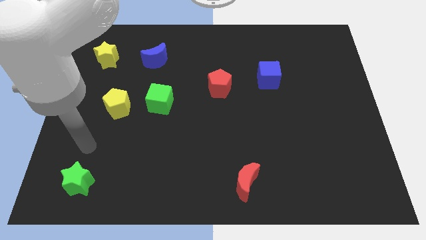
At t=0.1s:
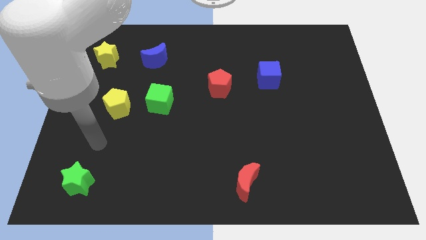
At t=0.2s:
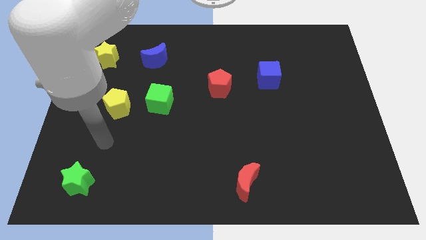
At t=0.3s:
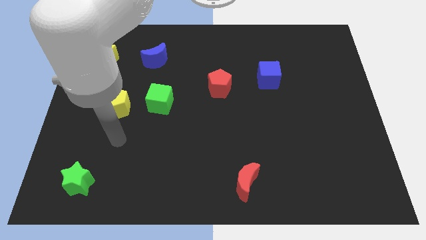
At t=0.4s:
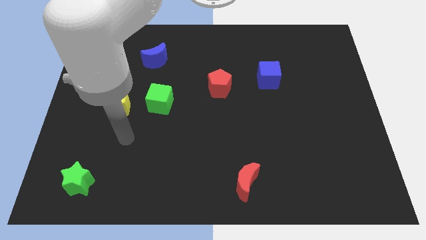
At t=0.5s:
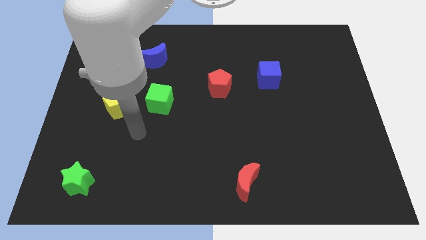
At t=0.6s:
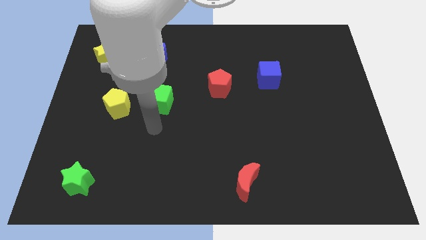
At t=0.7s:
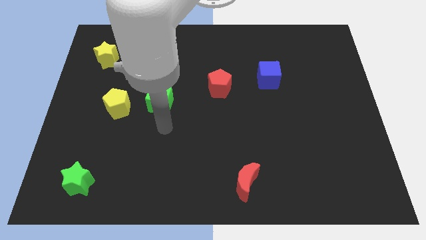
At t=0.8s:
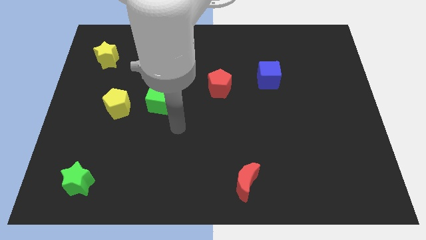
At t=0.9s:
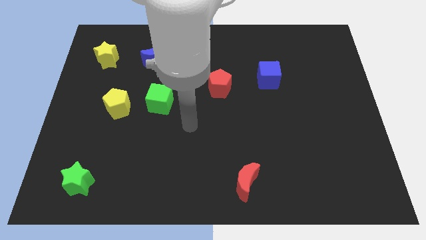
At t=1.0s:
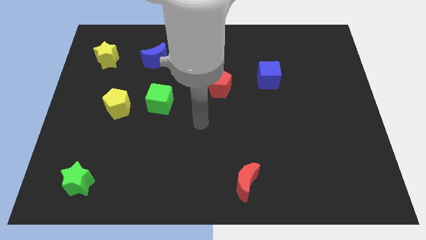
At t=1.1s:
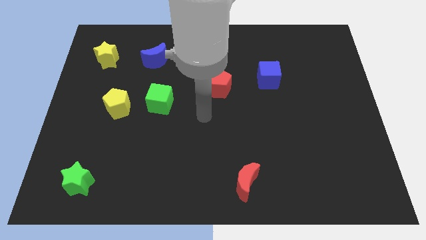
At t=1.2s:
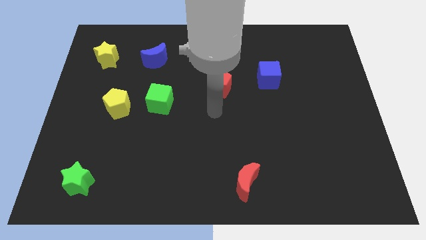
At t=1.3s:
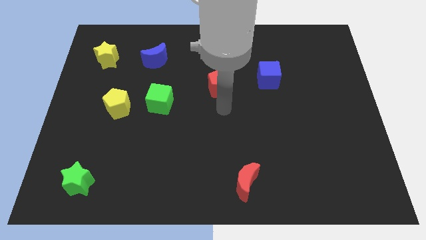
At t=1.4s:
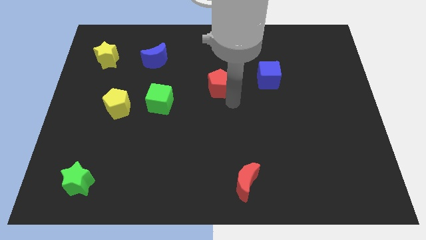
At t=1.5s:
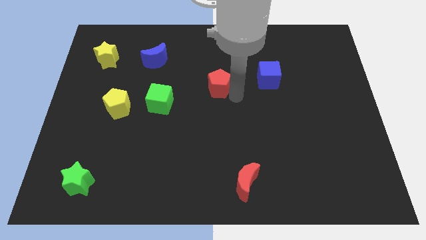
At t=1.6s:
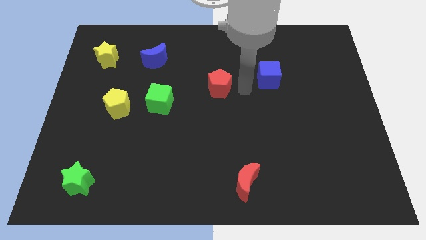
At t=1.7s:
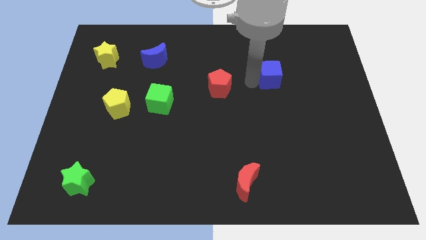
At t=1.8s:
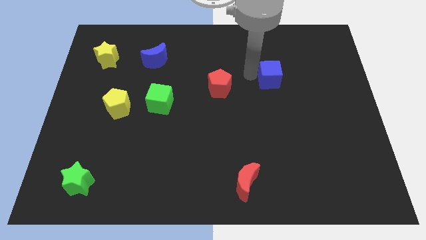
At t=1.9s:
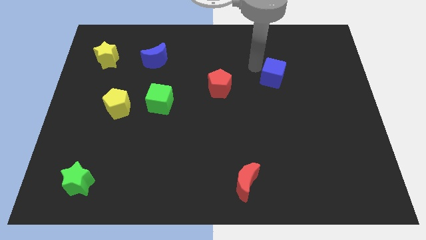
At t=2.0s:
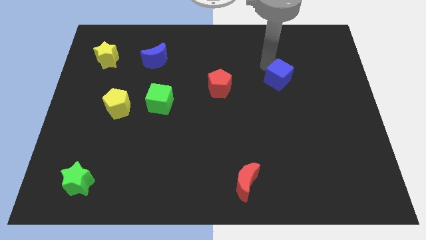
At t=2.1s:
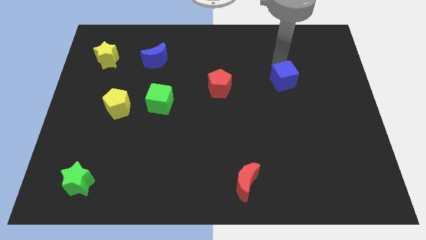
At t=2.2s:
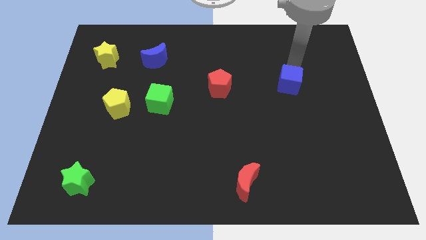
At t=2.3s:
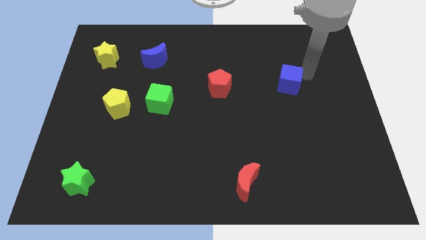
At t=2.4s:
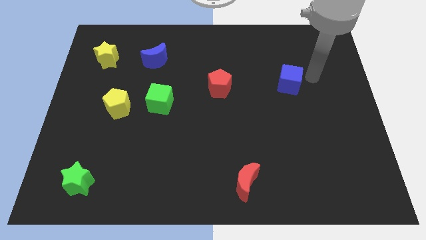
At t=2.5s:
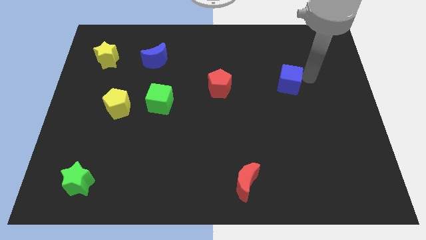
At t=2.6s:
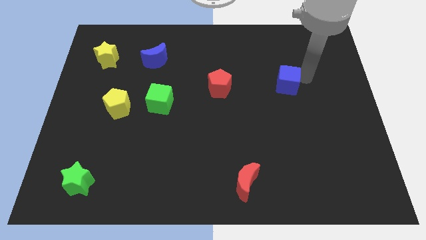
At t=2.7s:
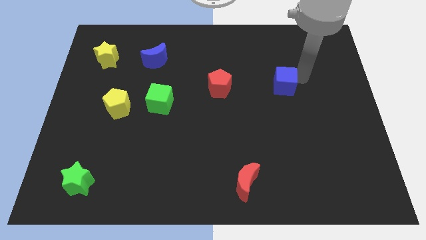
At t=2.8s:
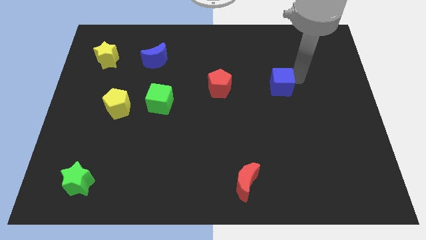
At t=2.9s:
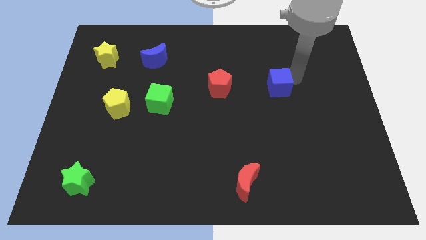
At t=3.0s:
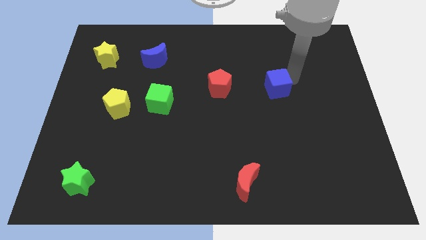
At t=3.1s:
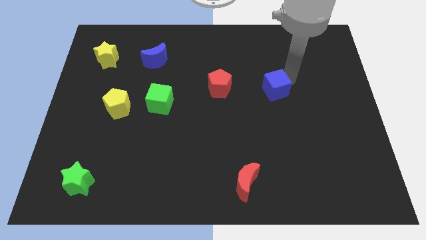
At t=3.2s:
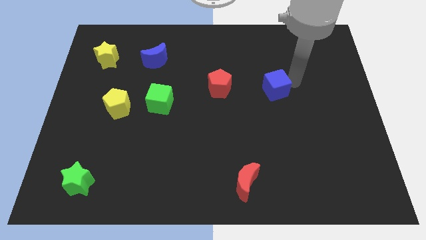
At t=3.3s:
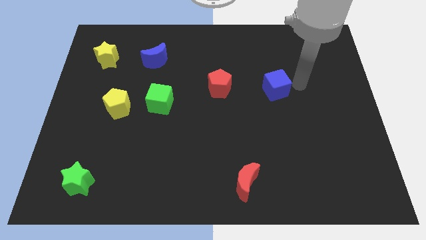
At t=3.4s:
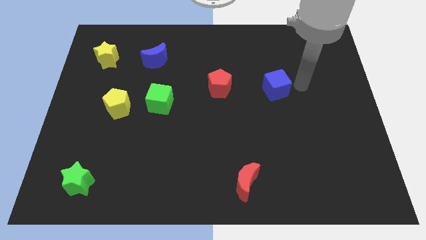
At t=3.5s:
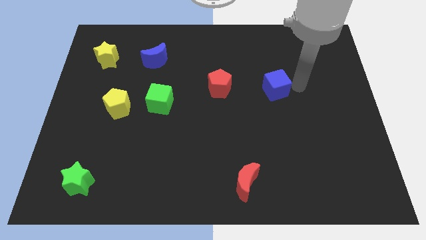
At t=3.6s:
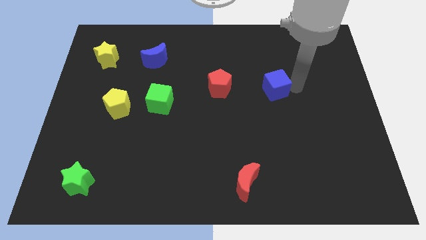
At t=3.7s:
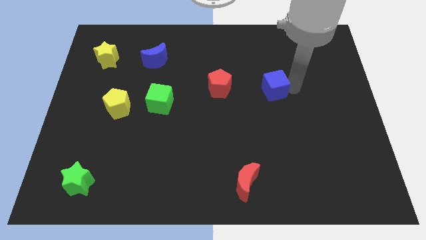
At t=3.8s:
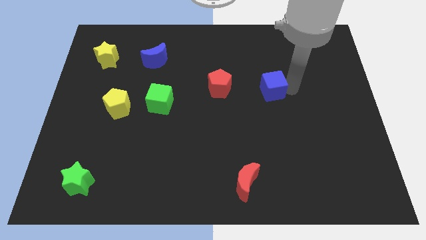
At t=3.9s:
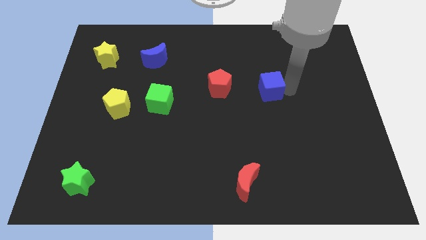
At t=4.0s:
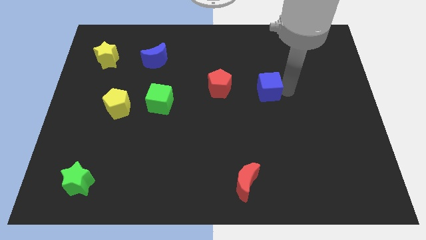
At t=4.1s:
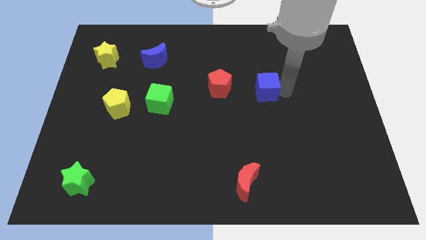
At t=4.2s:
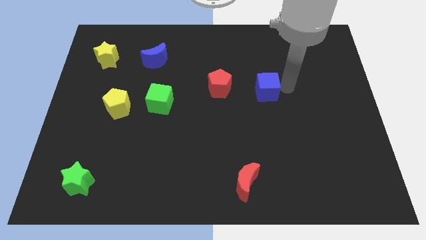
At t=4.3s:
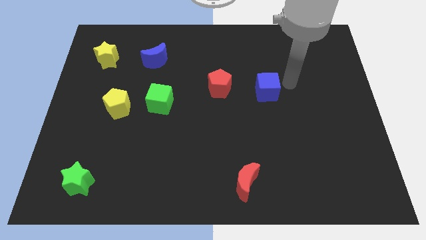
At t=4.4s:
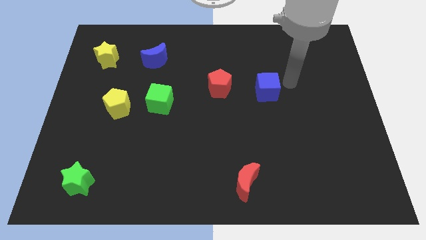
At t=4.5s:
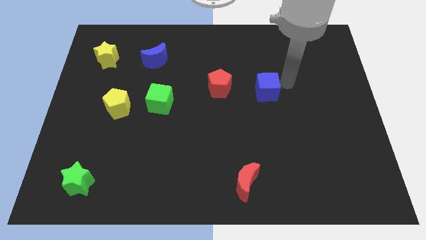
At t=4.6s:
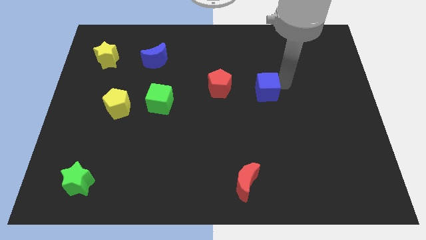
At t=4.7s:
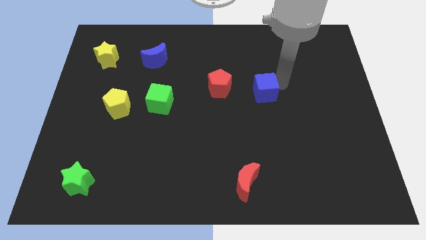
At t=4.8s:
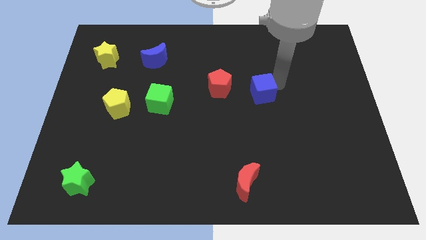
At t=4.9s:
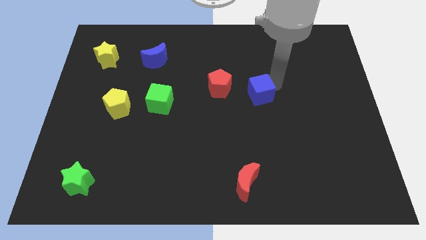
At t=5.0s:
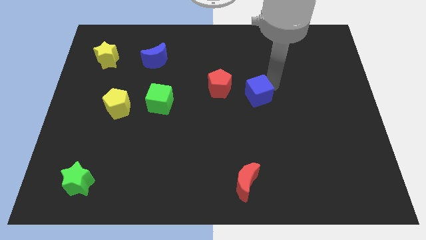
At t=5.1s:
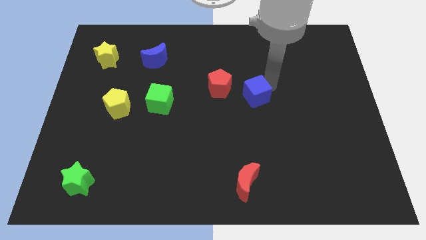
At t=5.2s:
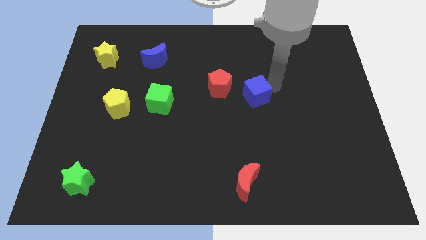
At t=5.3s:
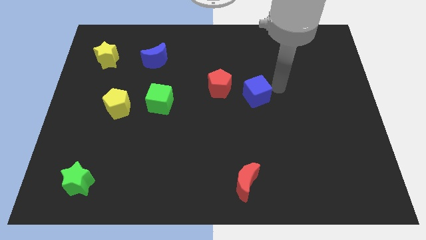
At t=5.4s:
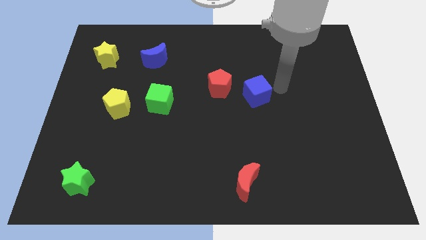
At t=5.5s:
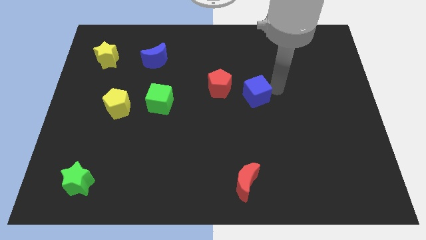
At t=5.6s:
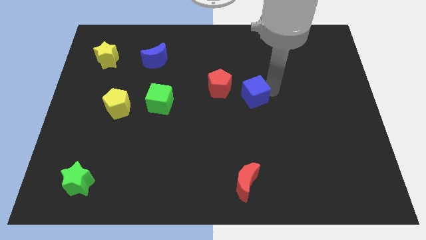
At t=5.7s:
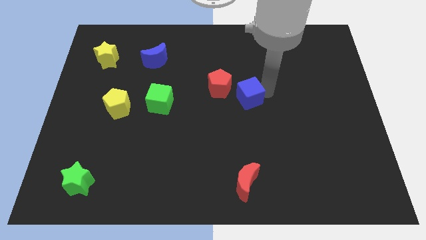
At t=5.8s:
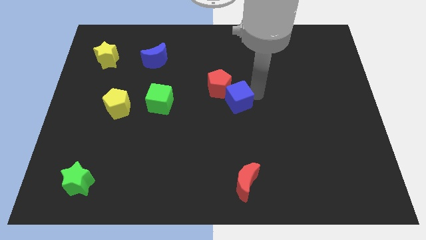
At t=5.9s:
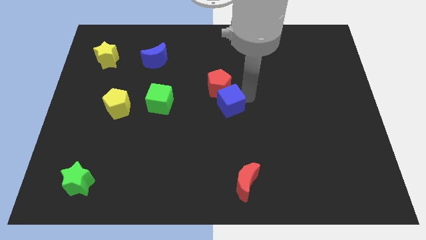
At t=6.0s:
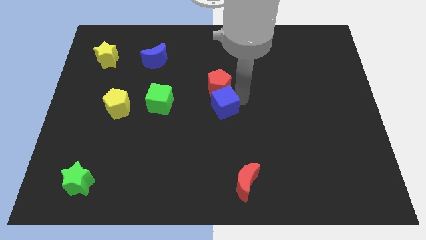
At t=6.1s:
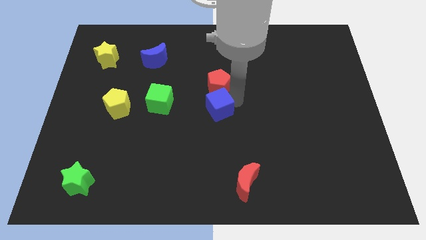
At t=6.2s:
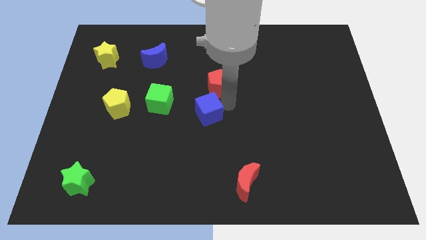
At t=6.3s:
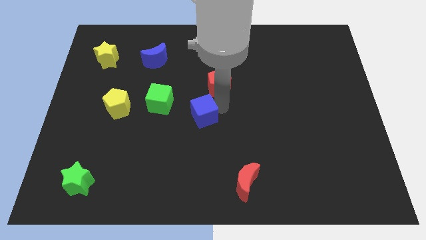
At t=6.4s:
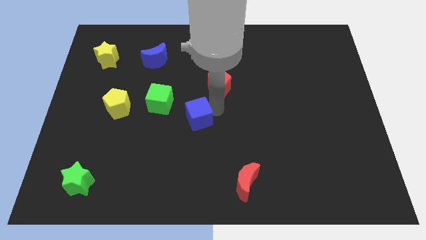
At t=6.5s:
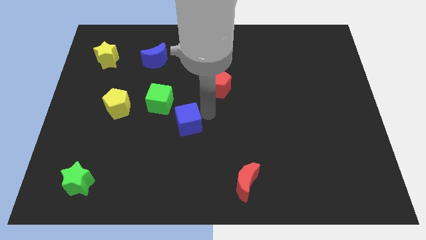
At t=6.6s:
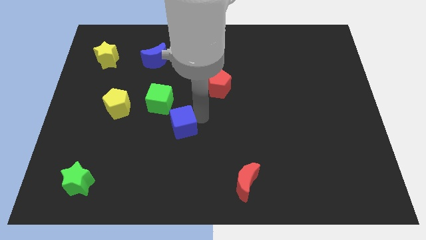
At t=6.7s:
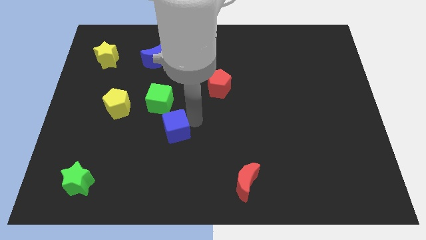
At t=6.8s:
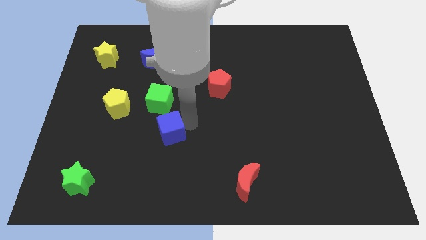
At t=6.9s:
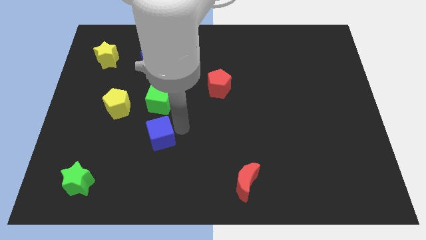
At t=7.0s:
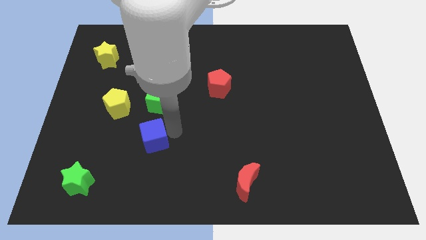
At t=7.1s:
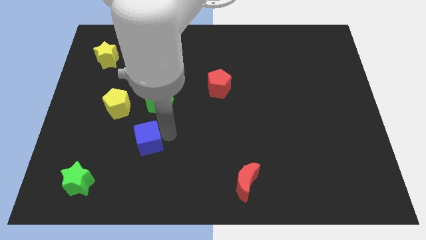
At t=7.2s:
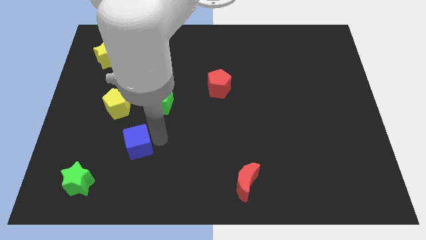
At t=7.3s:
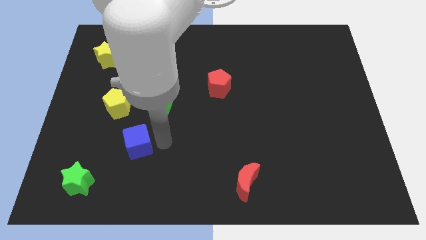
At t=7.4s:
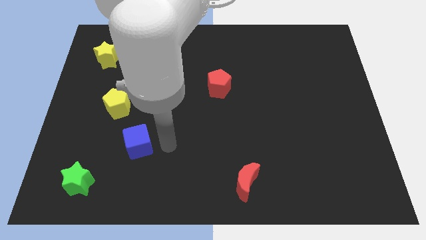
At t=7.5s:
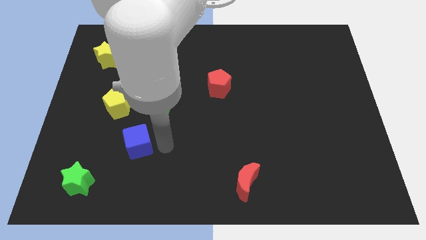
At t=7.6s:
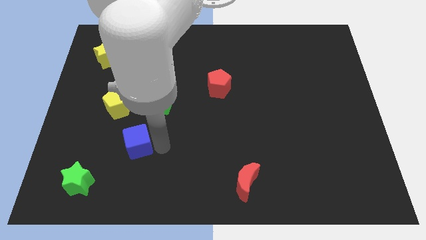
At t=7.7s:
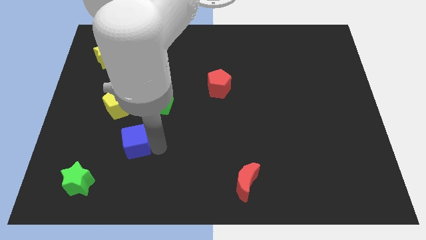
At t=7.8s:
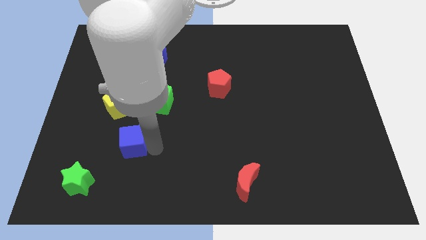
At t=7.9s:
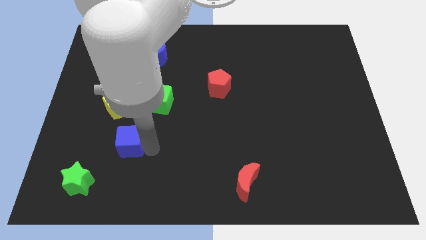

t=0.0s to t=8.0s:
put the blue cube to the bottom side of the yellow pentagon
